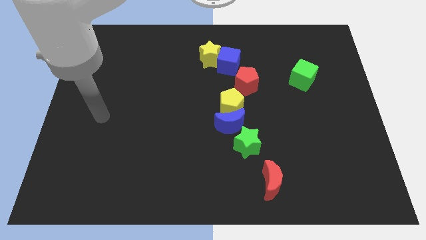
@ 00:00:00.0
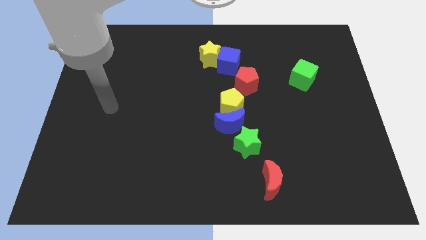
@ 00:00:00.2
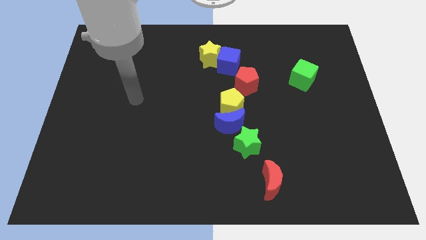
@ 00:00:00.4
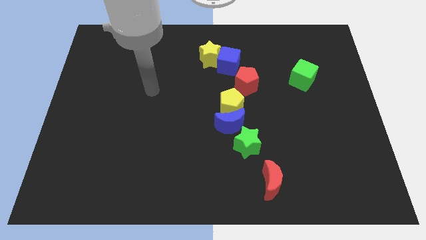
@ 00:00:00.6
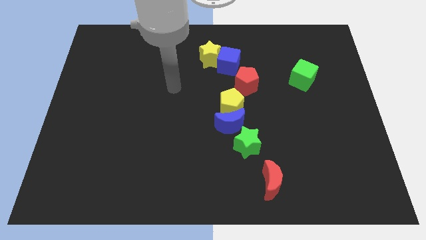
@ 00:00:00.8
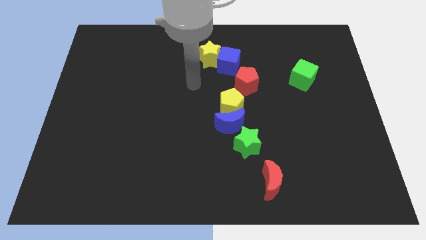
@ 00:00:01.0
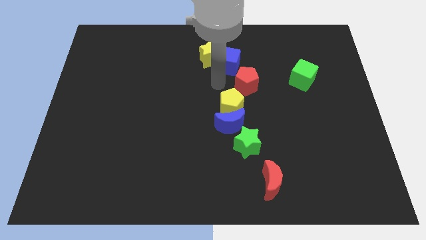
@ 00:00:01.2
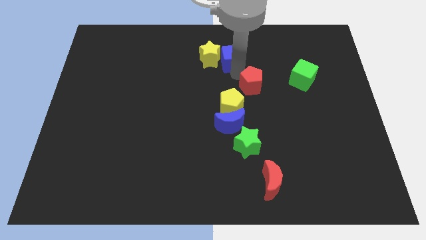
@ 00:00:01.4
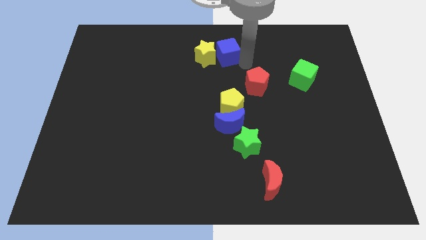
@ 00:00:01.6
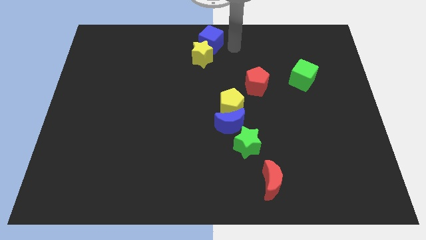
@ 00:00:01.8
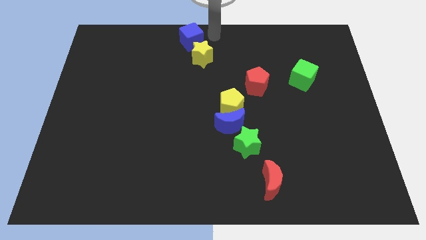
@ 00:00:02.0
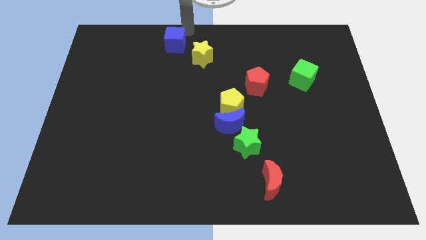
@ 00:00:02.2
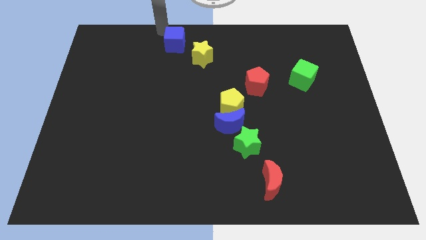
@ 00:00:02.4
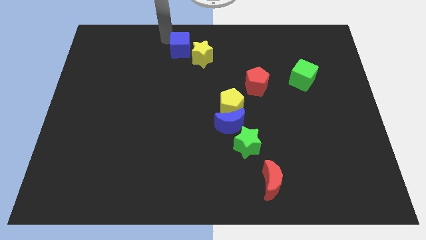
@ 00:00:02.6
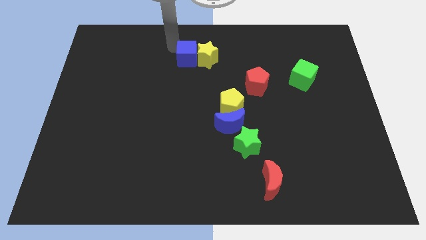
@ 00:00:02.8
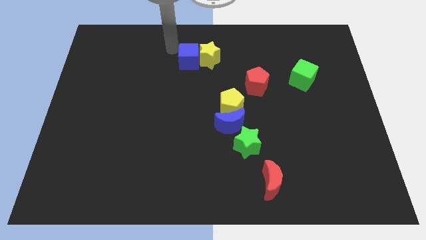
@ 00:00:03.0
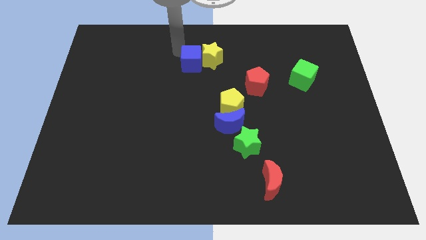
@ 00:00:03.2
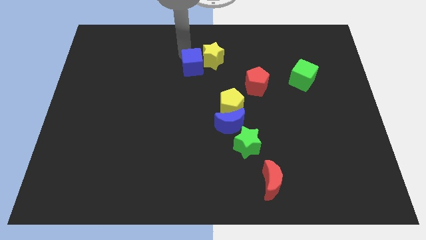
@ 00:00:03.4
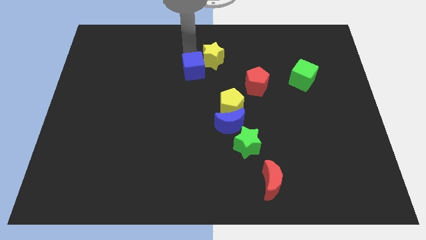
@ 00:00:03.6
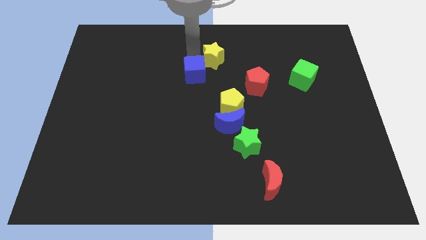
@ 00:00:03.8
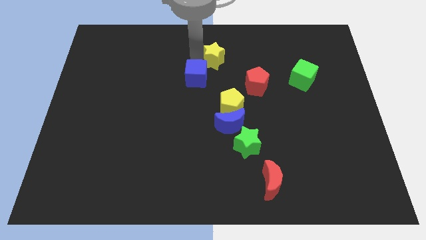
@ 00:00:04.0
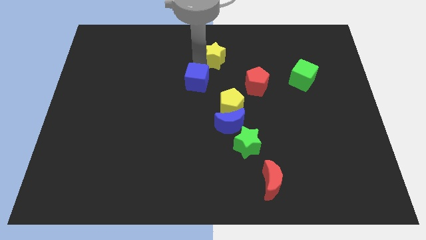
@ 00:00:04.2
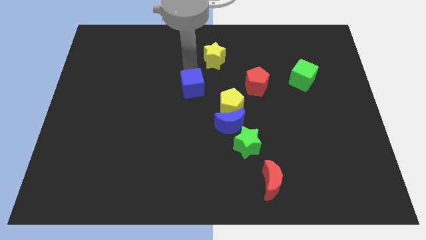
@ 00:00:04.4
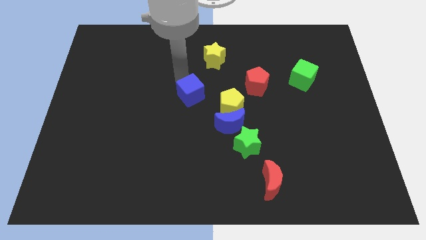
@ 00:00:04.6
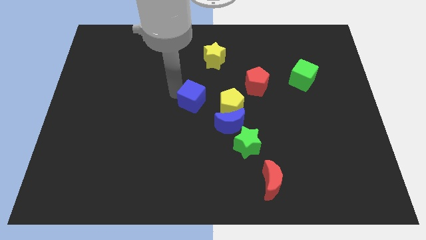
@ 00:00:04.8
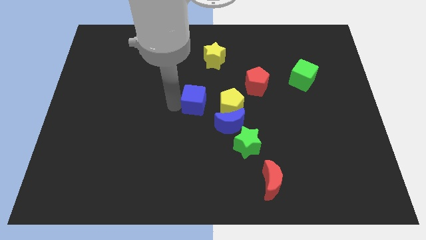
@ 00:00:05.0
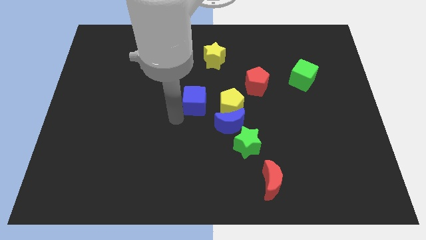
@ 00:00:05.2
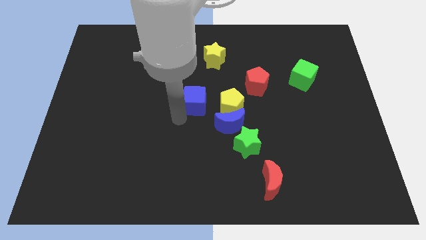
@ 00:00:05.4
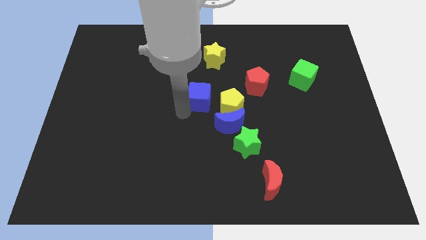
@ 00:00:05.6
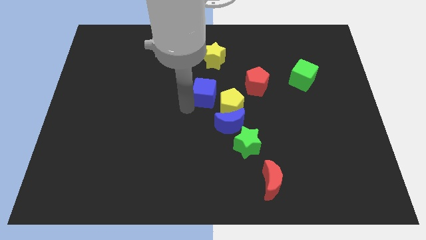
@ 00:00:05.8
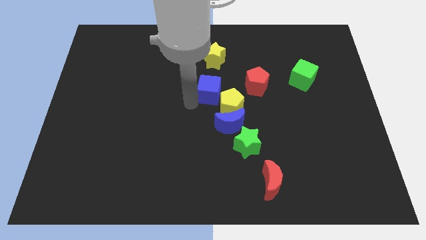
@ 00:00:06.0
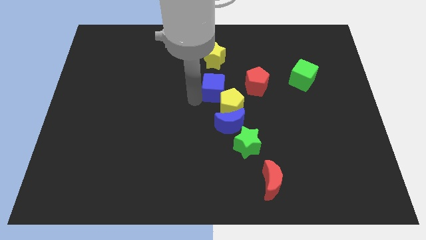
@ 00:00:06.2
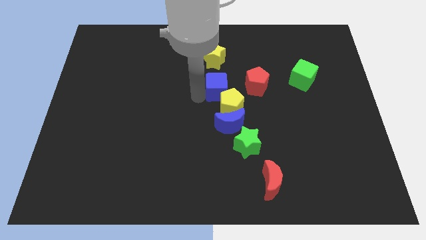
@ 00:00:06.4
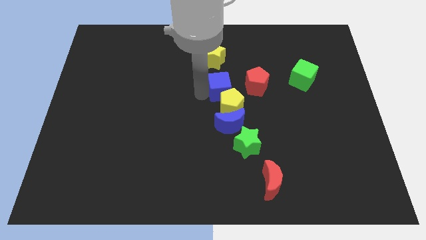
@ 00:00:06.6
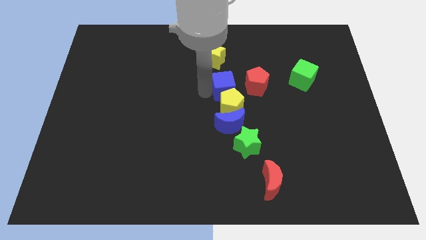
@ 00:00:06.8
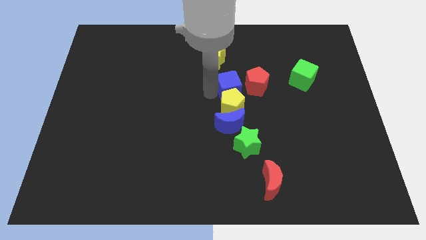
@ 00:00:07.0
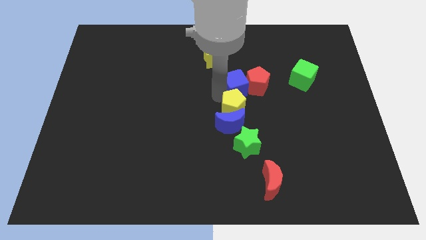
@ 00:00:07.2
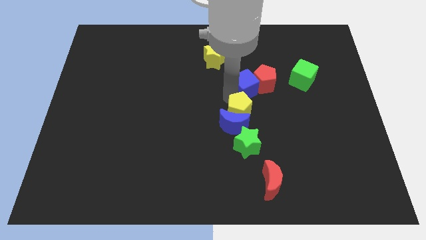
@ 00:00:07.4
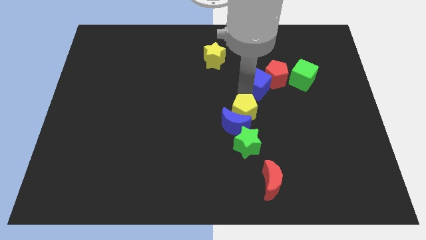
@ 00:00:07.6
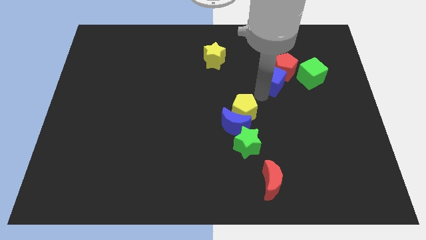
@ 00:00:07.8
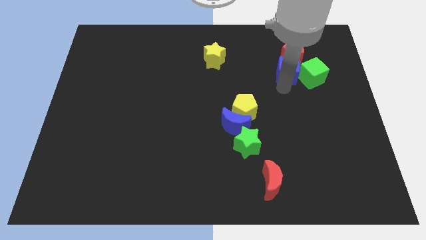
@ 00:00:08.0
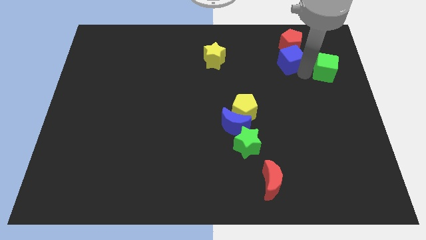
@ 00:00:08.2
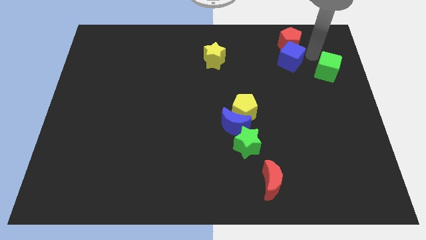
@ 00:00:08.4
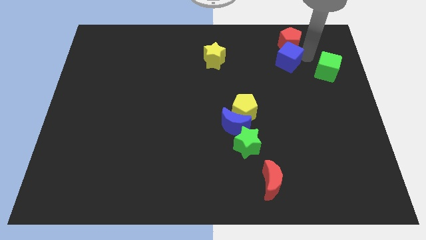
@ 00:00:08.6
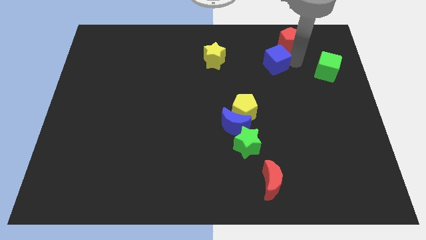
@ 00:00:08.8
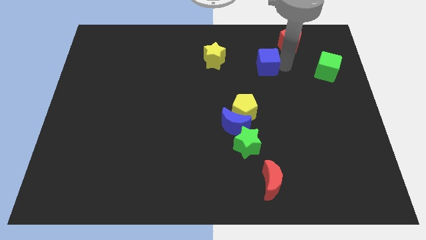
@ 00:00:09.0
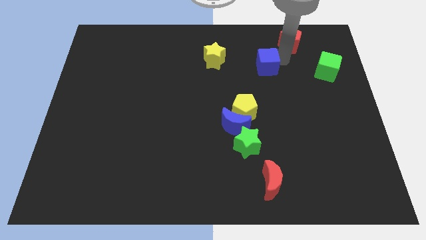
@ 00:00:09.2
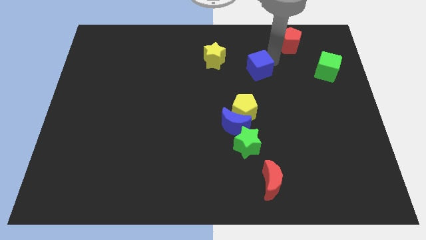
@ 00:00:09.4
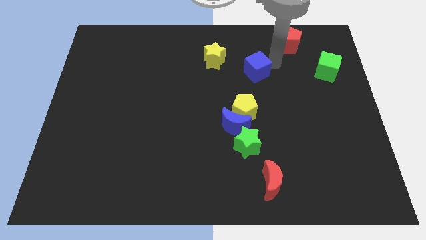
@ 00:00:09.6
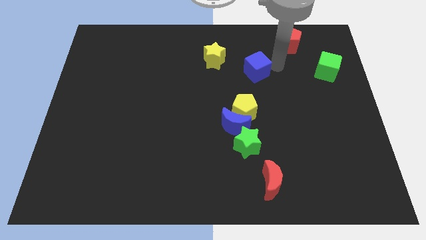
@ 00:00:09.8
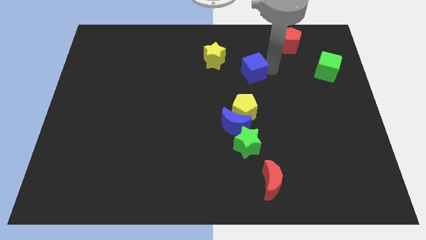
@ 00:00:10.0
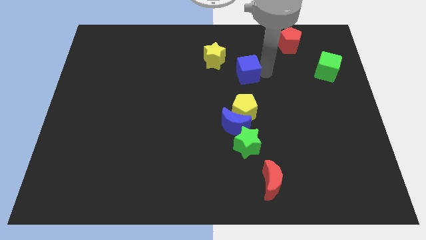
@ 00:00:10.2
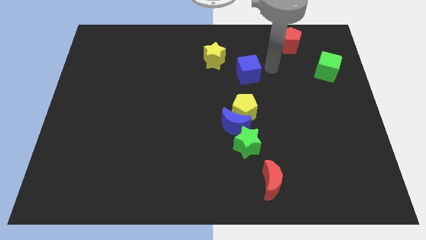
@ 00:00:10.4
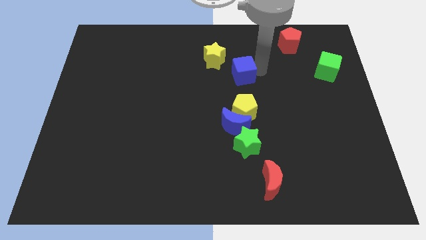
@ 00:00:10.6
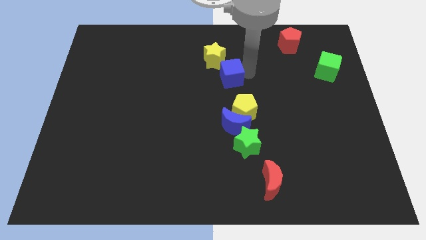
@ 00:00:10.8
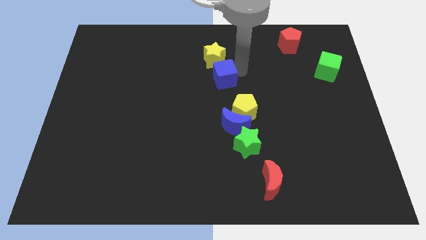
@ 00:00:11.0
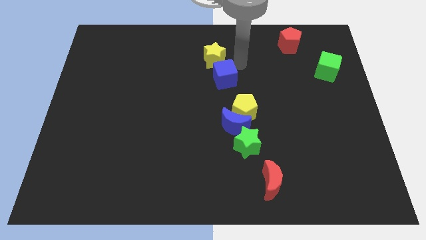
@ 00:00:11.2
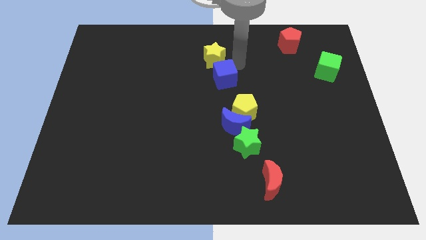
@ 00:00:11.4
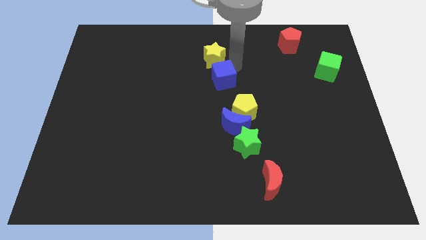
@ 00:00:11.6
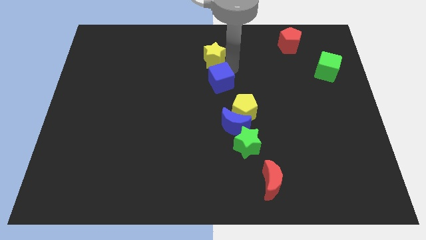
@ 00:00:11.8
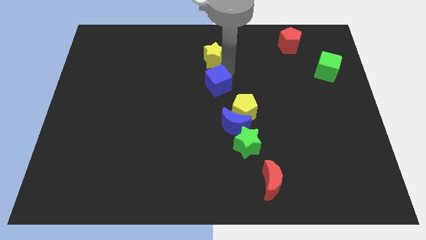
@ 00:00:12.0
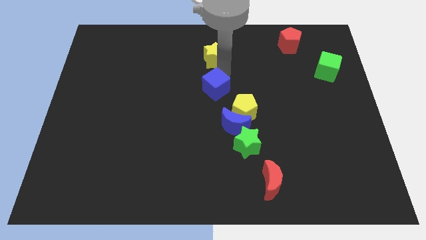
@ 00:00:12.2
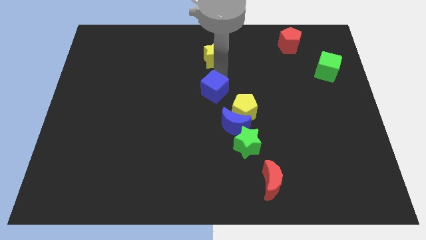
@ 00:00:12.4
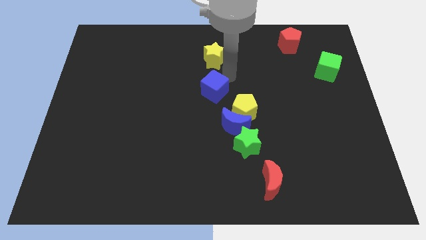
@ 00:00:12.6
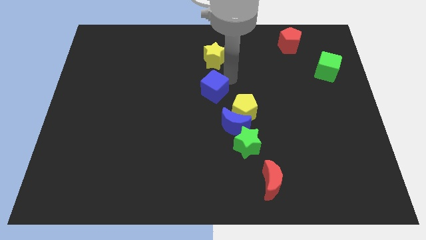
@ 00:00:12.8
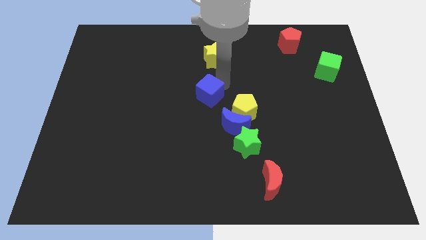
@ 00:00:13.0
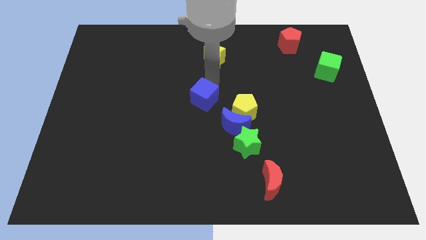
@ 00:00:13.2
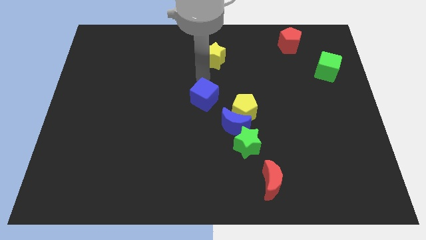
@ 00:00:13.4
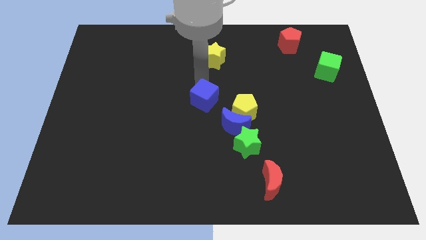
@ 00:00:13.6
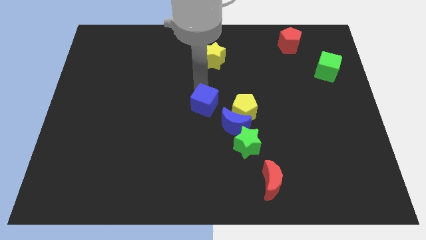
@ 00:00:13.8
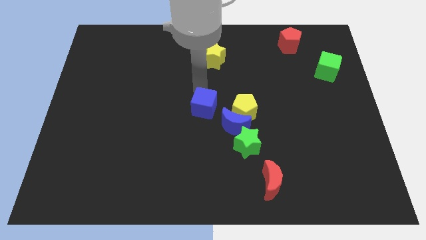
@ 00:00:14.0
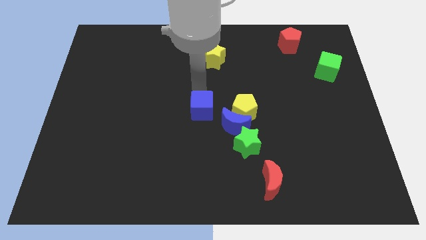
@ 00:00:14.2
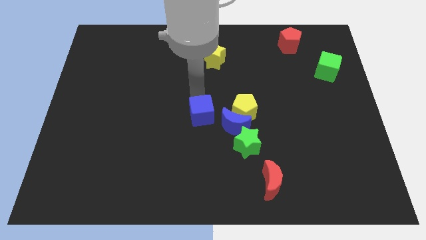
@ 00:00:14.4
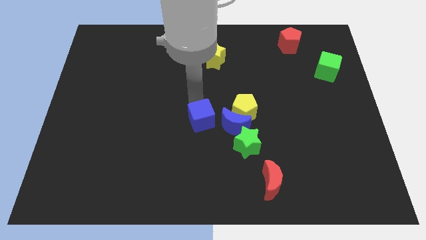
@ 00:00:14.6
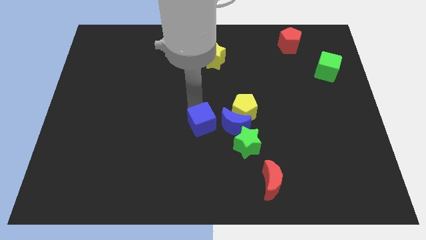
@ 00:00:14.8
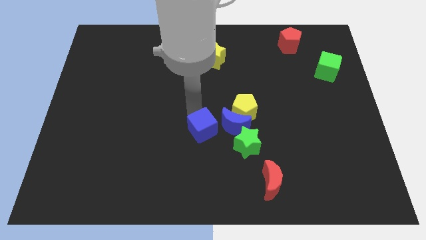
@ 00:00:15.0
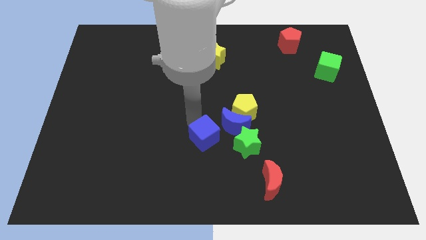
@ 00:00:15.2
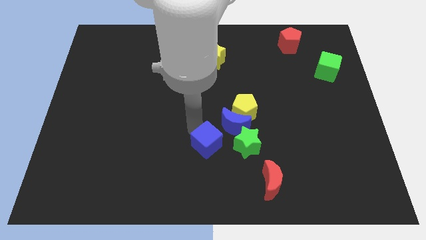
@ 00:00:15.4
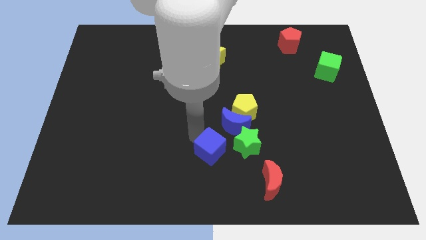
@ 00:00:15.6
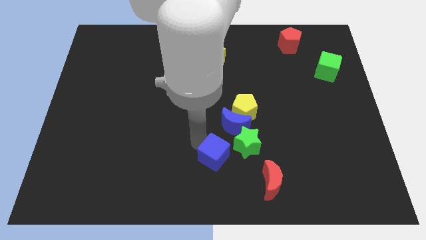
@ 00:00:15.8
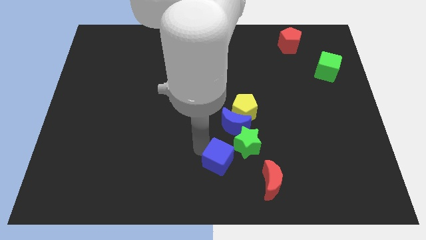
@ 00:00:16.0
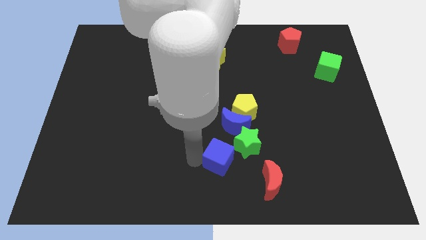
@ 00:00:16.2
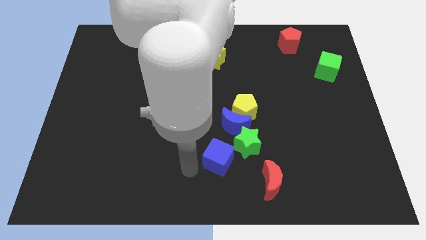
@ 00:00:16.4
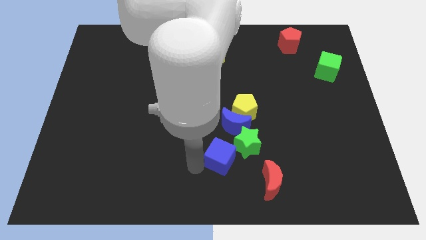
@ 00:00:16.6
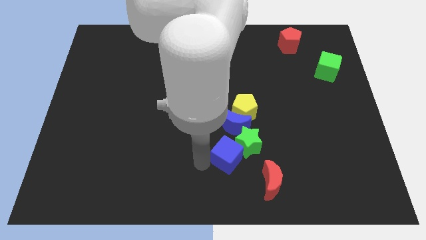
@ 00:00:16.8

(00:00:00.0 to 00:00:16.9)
put the blue cube below the yellow pentagon
